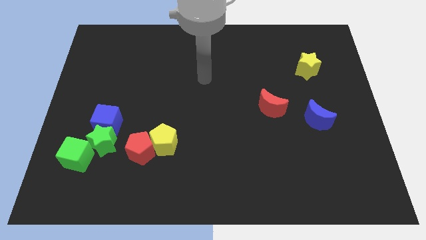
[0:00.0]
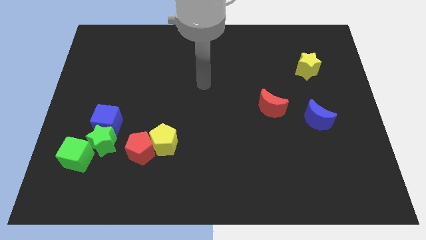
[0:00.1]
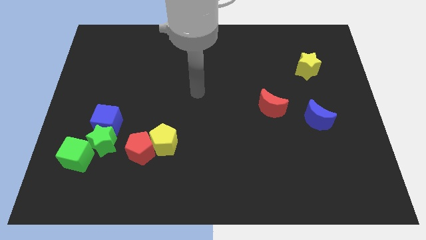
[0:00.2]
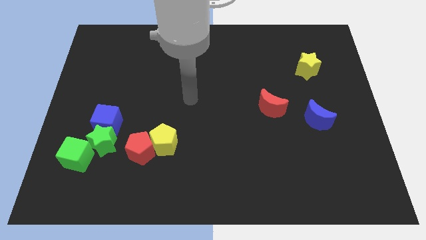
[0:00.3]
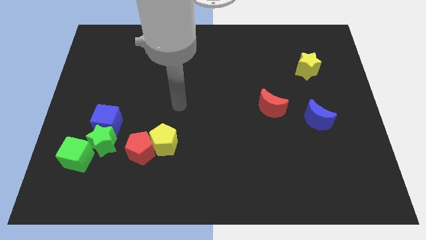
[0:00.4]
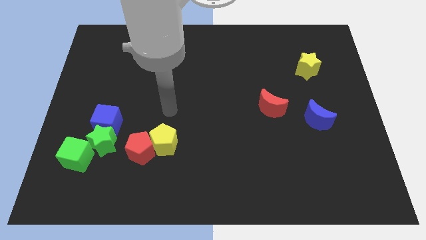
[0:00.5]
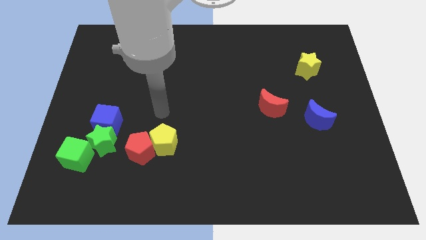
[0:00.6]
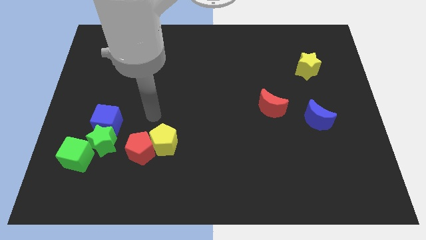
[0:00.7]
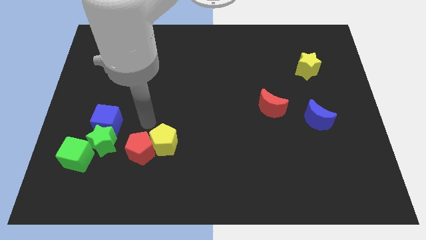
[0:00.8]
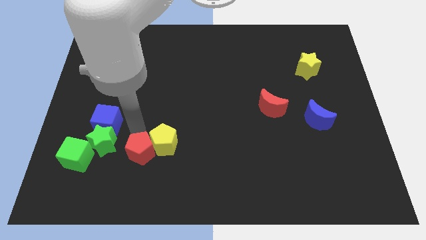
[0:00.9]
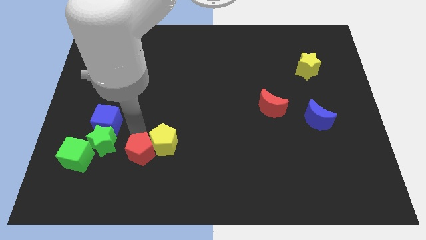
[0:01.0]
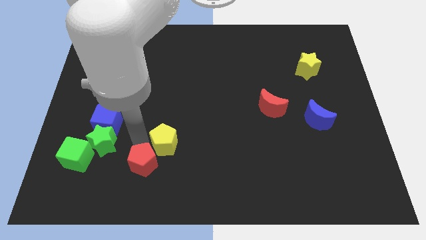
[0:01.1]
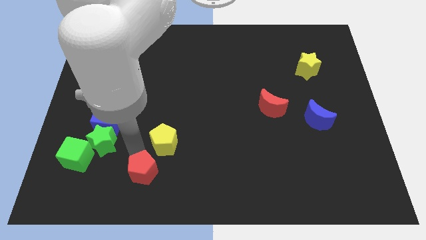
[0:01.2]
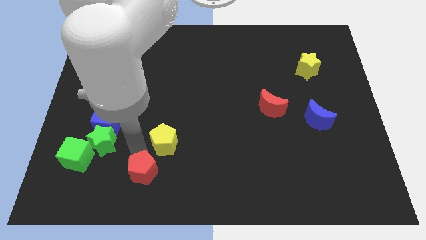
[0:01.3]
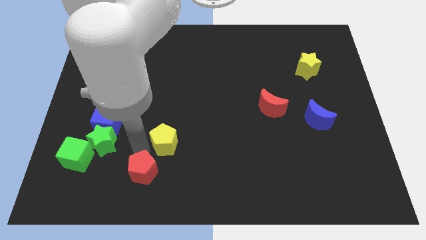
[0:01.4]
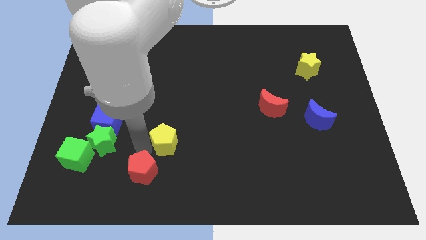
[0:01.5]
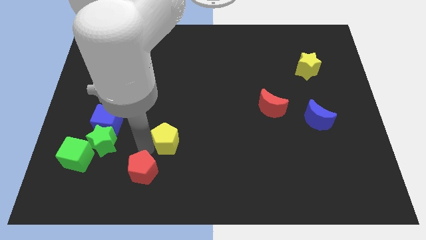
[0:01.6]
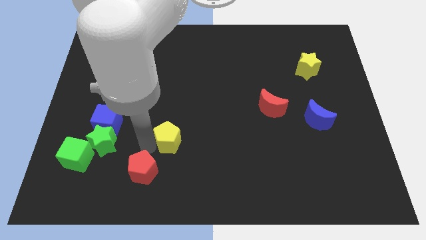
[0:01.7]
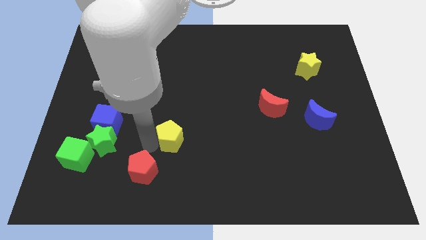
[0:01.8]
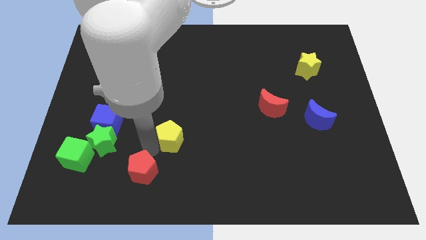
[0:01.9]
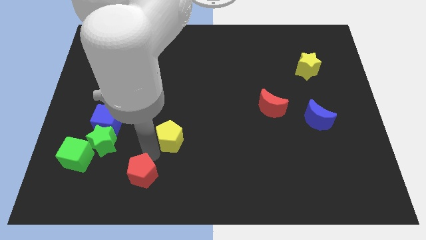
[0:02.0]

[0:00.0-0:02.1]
separate the yellow pentagon from the red pentagon

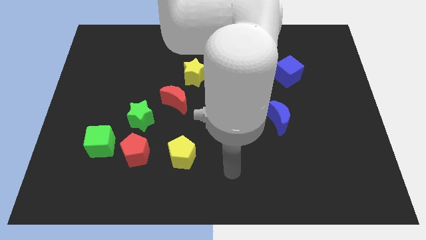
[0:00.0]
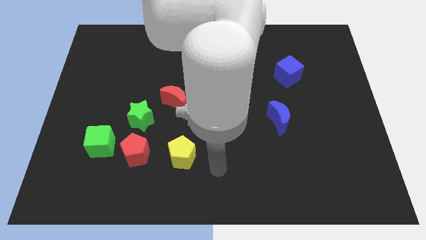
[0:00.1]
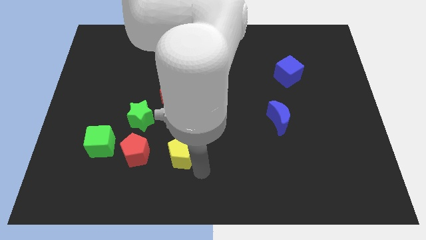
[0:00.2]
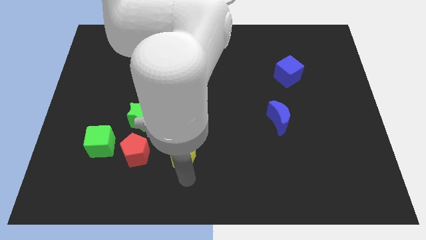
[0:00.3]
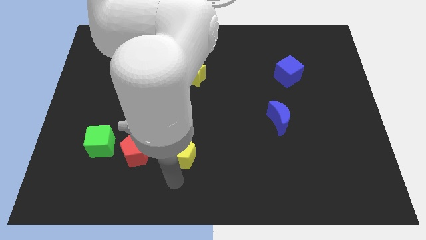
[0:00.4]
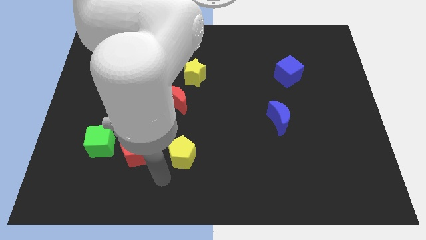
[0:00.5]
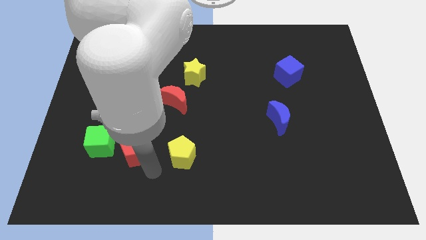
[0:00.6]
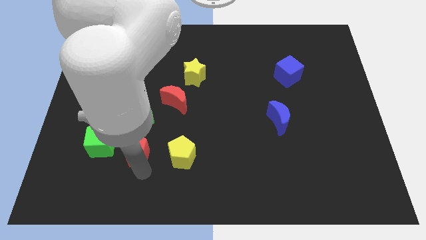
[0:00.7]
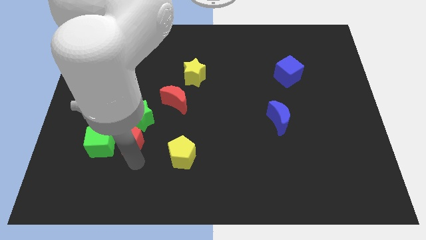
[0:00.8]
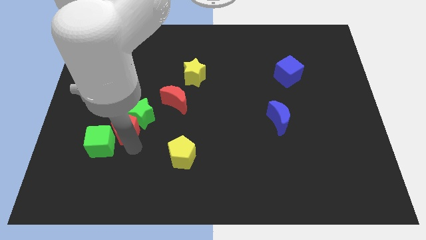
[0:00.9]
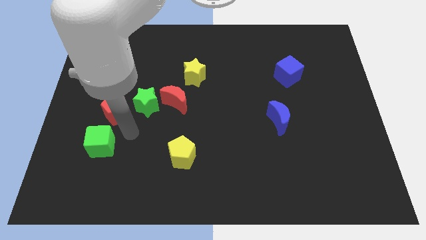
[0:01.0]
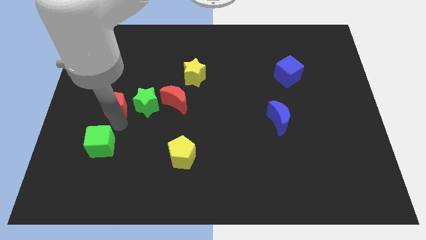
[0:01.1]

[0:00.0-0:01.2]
separate the green cube from the red pentagon

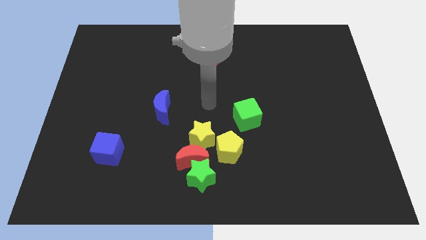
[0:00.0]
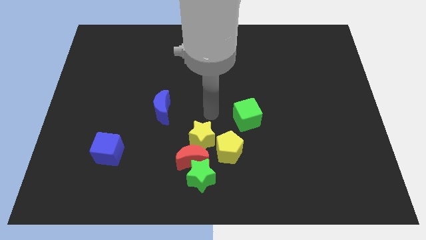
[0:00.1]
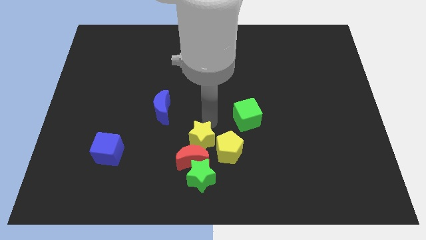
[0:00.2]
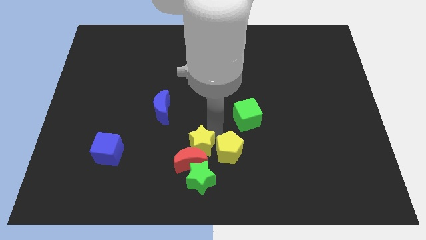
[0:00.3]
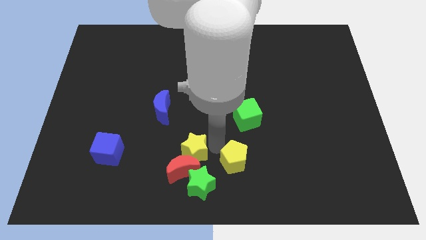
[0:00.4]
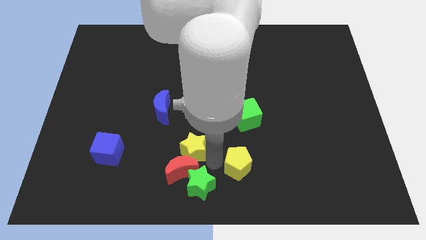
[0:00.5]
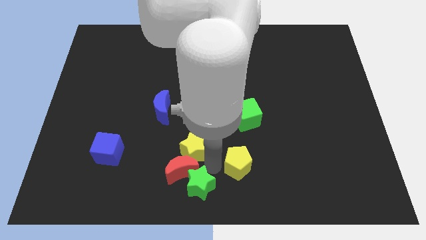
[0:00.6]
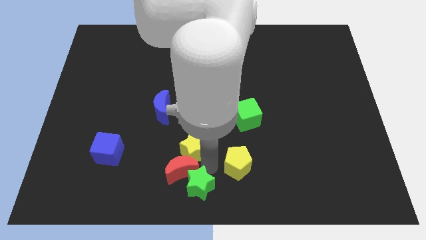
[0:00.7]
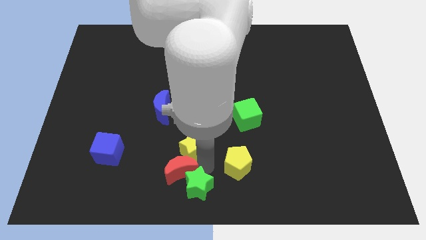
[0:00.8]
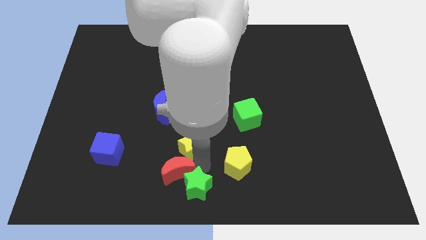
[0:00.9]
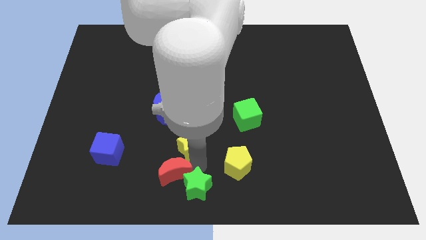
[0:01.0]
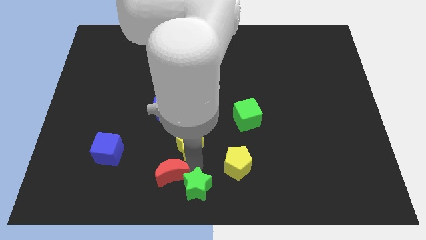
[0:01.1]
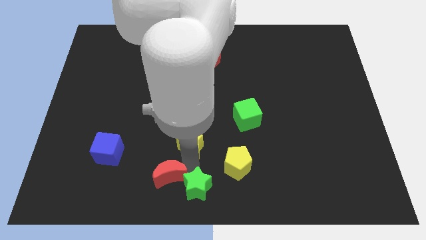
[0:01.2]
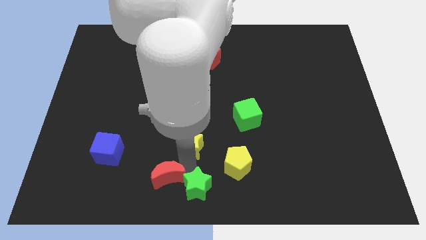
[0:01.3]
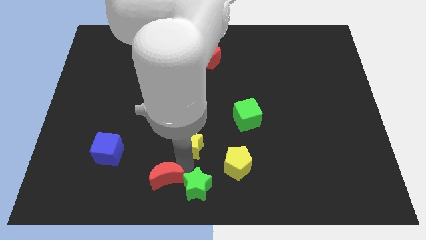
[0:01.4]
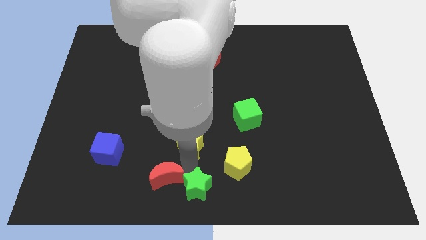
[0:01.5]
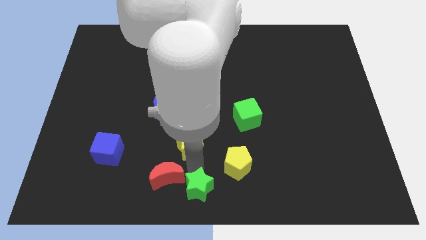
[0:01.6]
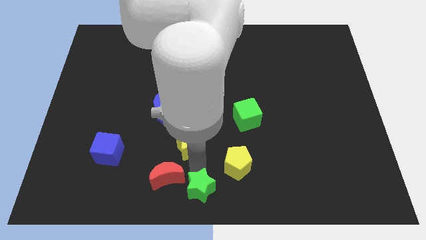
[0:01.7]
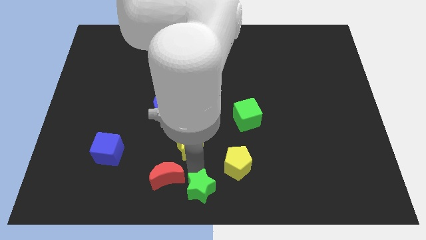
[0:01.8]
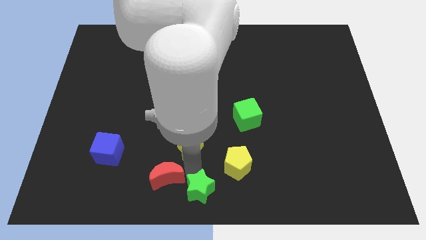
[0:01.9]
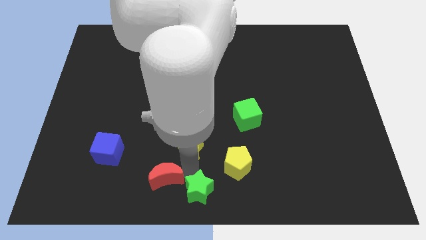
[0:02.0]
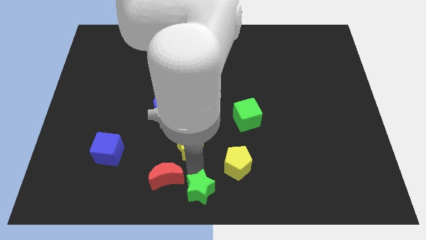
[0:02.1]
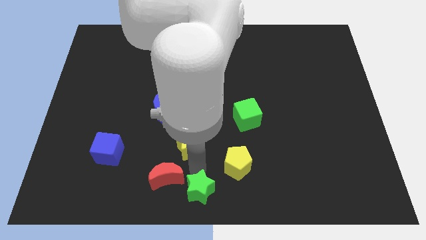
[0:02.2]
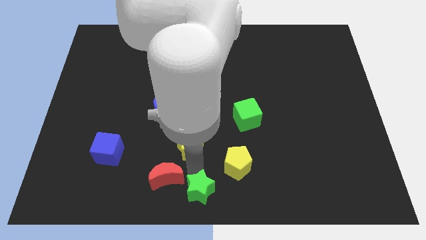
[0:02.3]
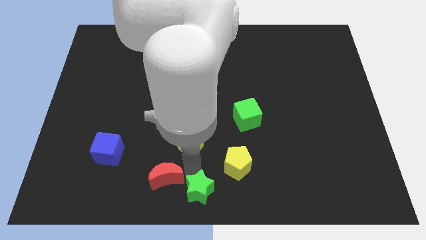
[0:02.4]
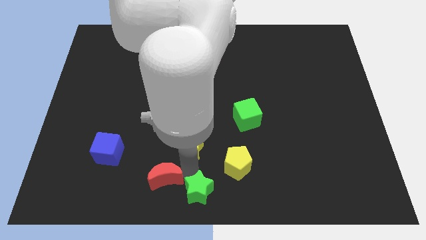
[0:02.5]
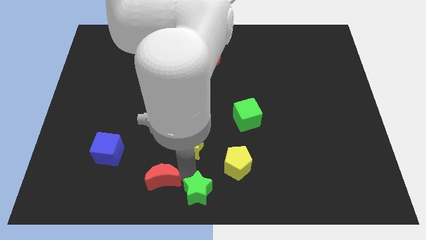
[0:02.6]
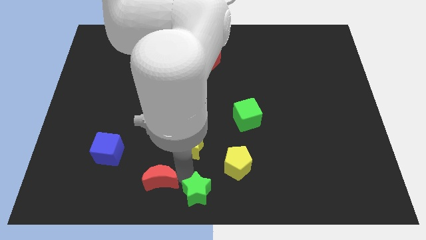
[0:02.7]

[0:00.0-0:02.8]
separate the red moon from the green star, yellow star, and yellow pentagon

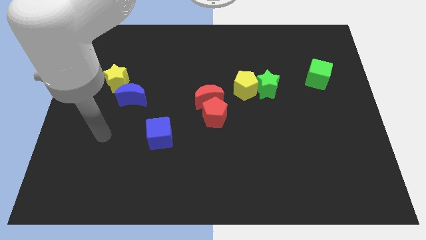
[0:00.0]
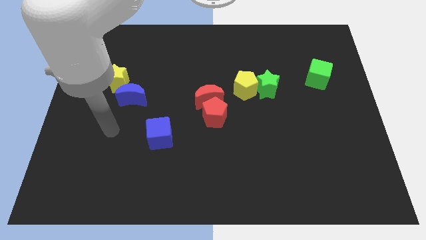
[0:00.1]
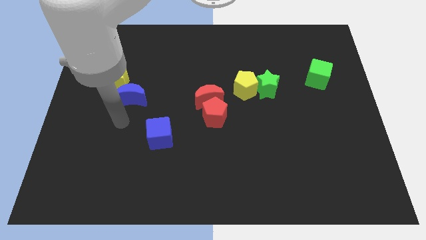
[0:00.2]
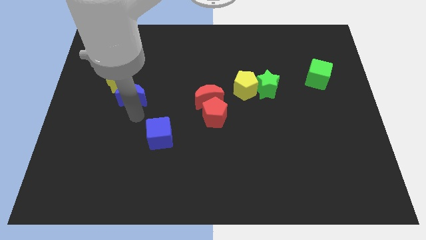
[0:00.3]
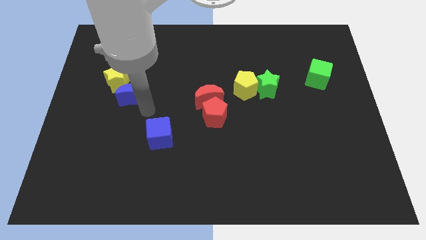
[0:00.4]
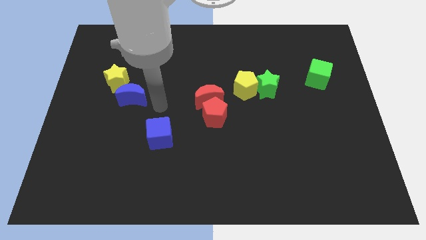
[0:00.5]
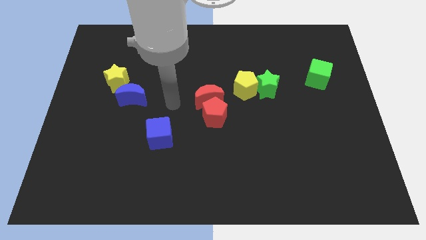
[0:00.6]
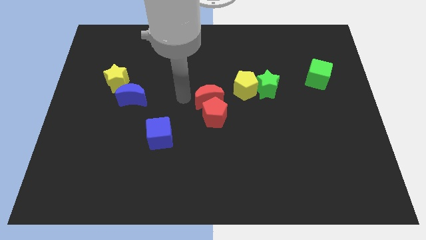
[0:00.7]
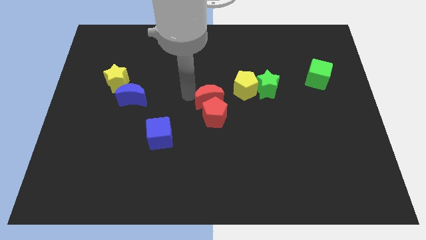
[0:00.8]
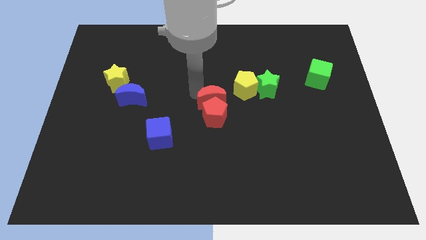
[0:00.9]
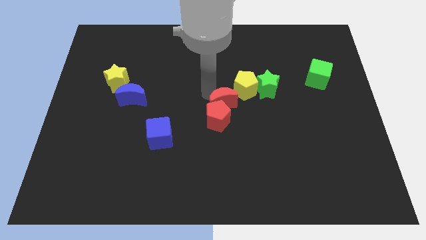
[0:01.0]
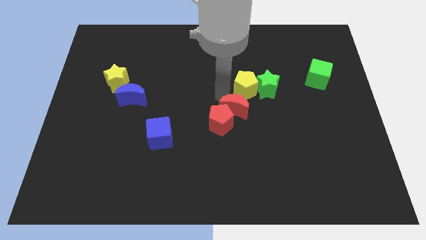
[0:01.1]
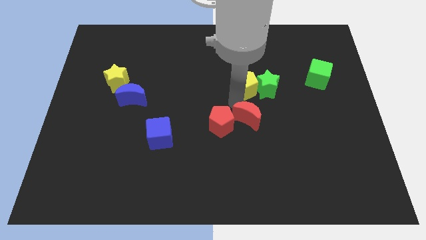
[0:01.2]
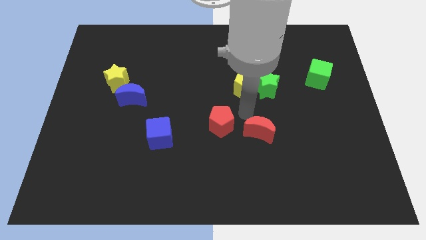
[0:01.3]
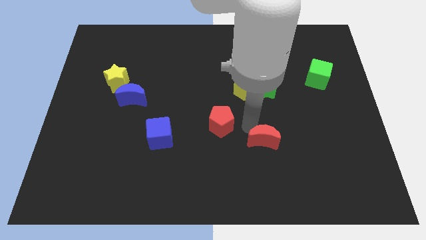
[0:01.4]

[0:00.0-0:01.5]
move the red pentagon away from the red moon

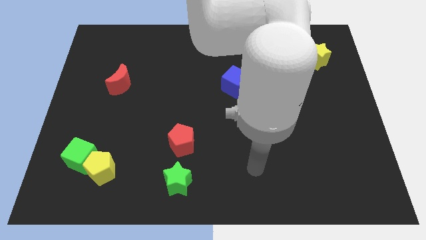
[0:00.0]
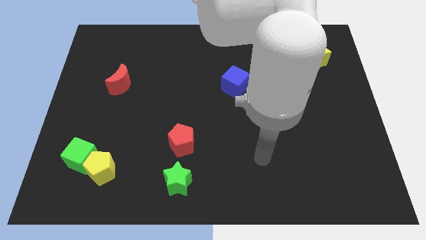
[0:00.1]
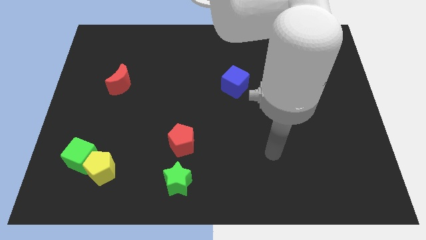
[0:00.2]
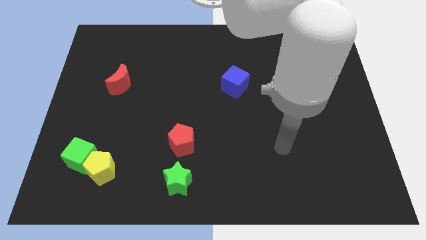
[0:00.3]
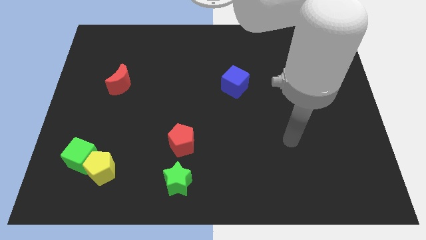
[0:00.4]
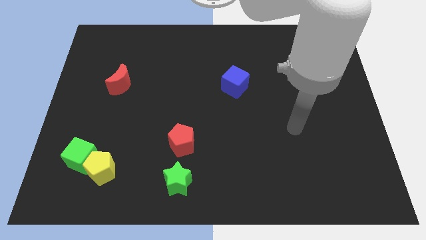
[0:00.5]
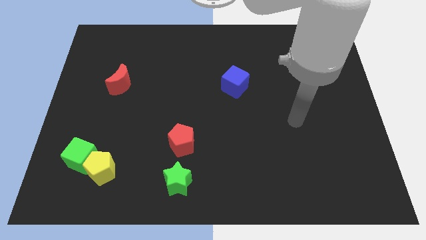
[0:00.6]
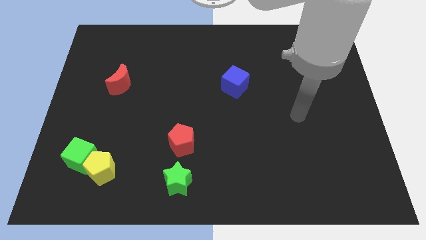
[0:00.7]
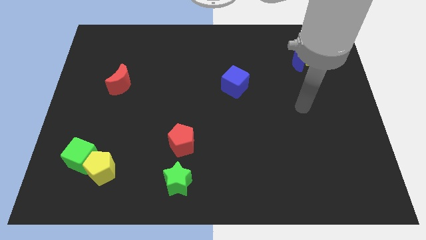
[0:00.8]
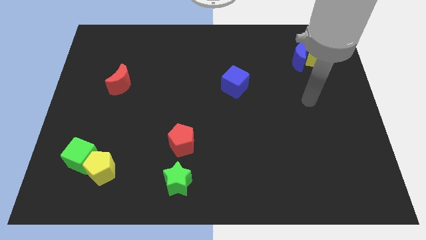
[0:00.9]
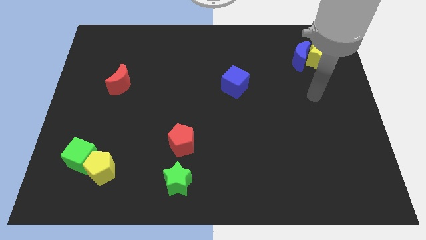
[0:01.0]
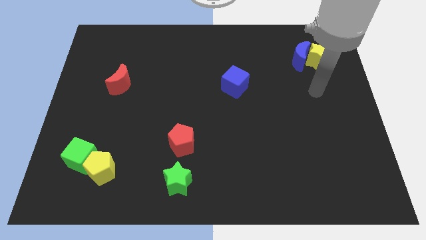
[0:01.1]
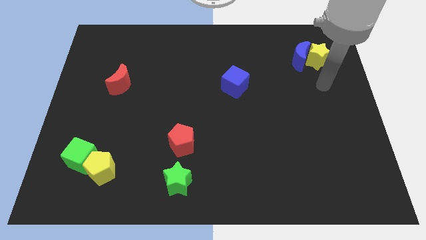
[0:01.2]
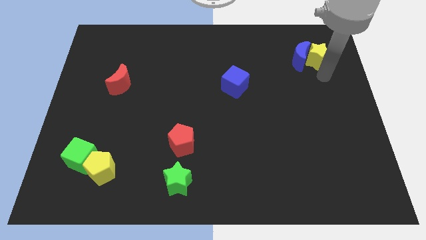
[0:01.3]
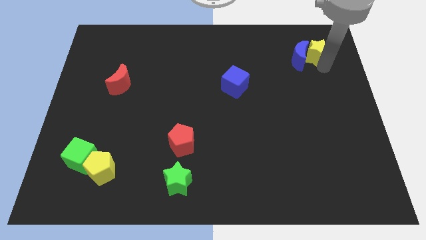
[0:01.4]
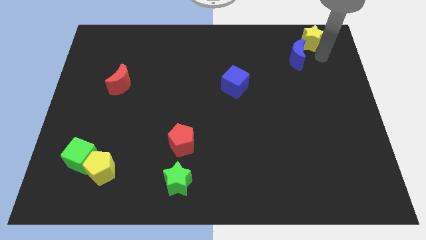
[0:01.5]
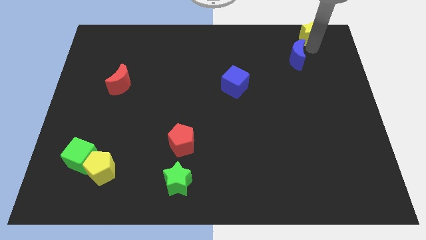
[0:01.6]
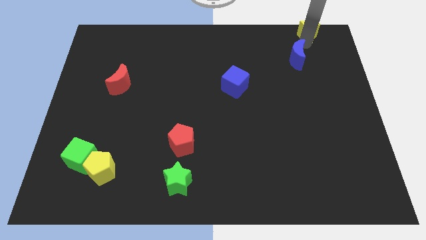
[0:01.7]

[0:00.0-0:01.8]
separate the blue moon from the yellow star
